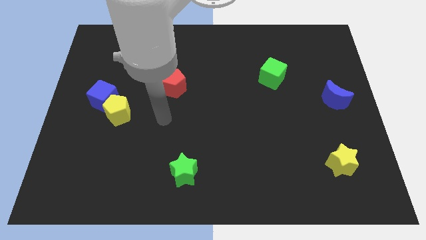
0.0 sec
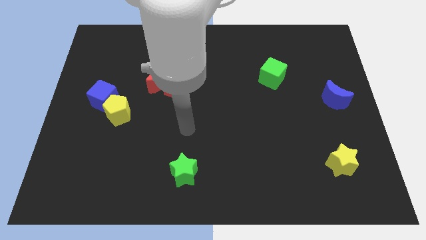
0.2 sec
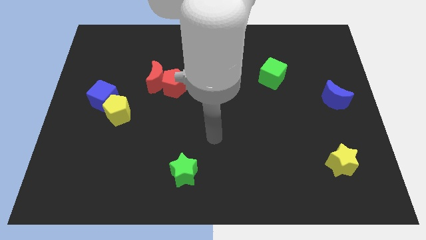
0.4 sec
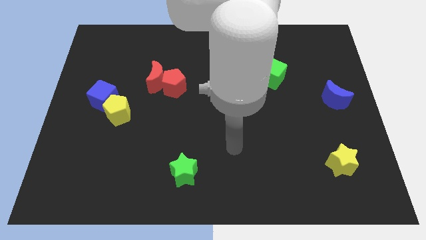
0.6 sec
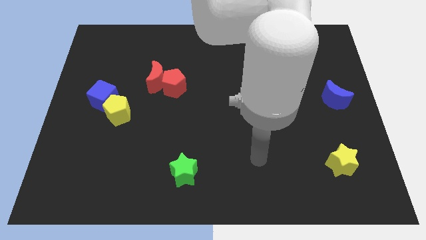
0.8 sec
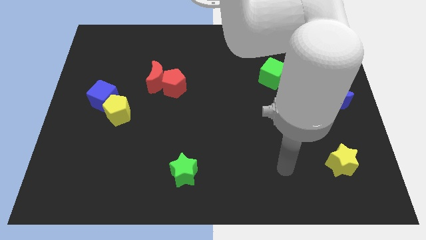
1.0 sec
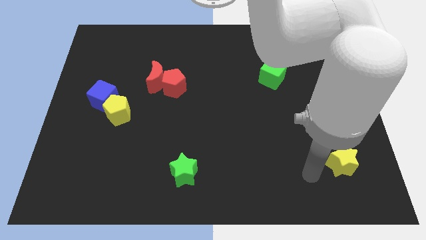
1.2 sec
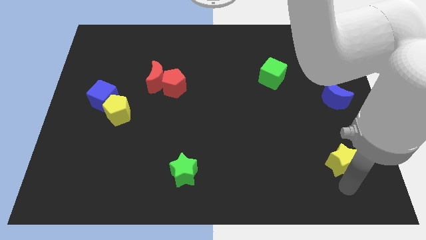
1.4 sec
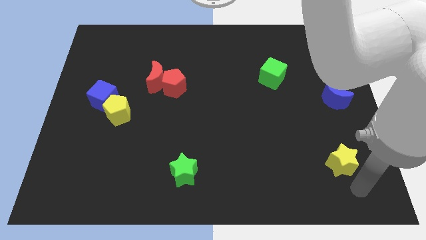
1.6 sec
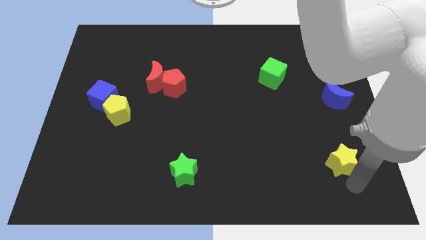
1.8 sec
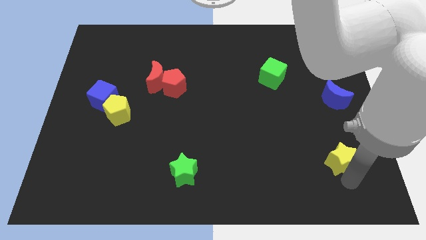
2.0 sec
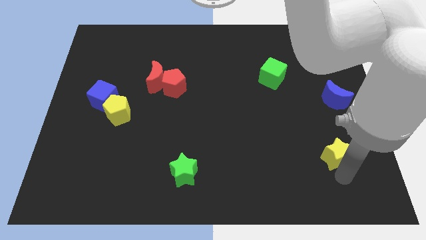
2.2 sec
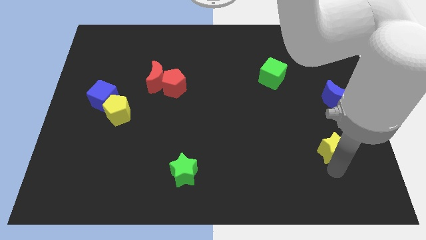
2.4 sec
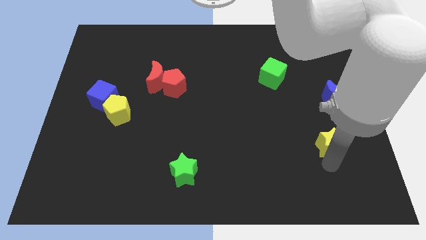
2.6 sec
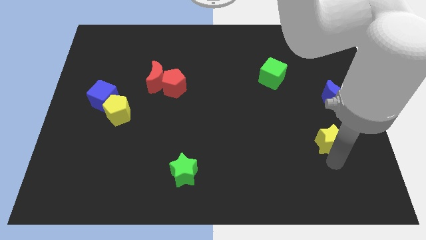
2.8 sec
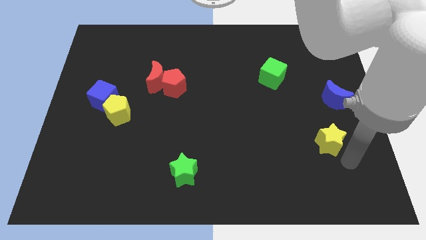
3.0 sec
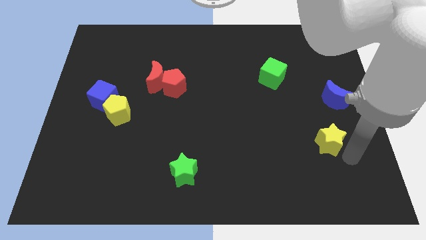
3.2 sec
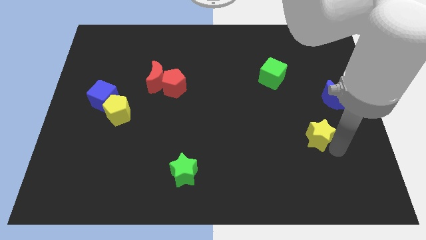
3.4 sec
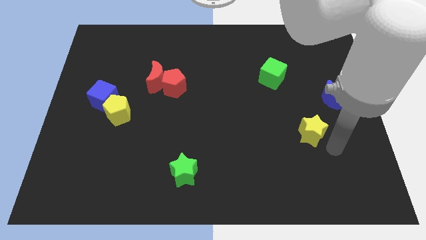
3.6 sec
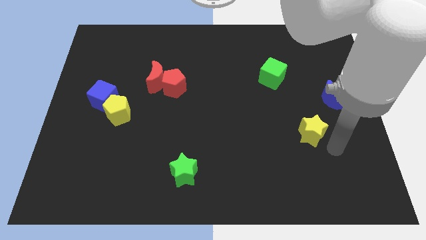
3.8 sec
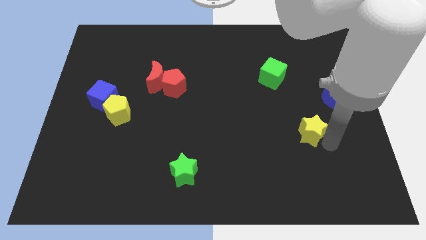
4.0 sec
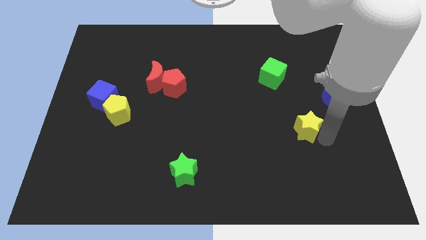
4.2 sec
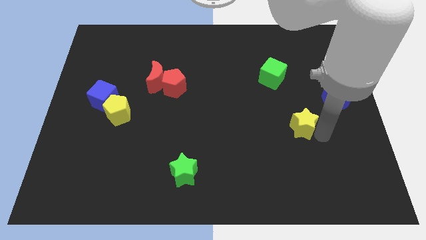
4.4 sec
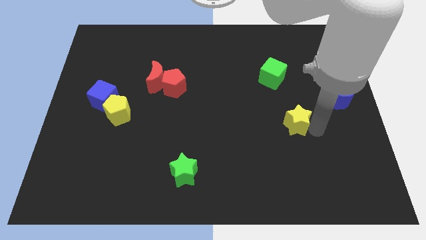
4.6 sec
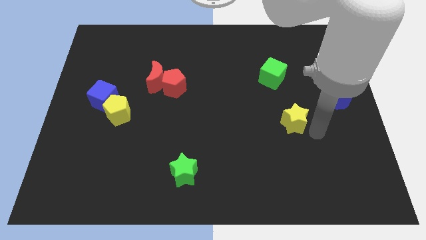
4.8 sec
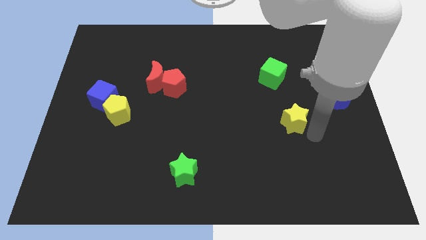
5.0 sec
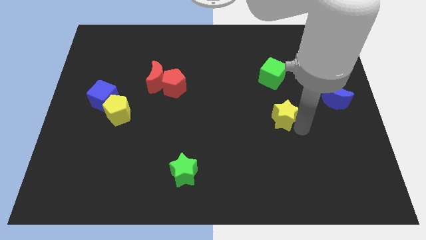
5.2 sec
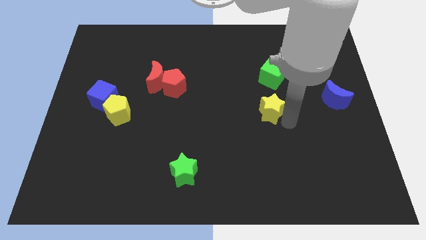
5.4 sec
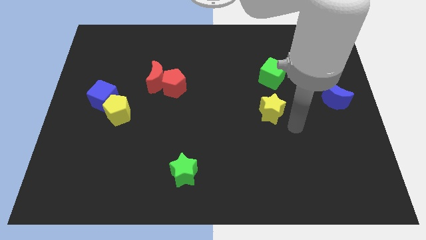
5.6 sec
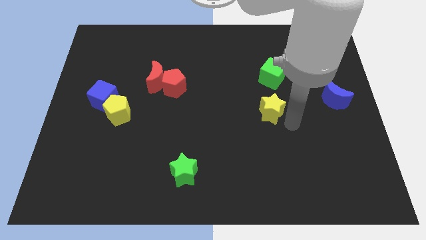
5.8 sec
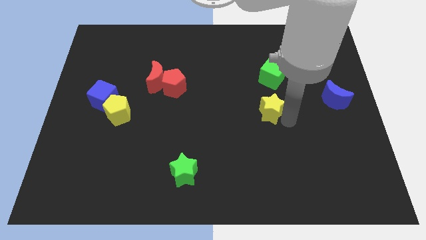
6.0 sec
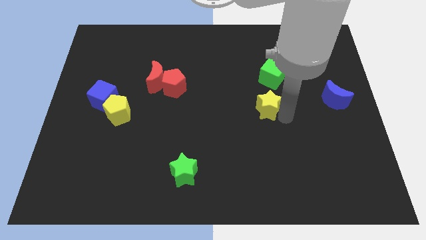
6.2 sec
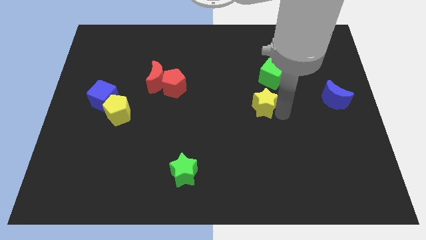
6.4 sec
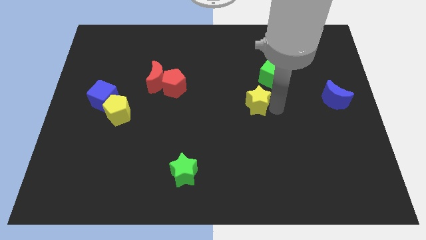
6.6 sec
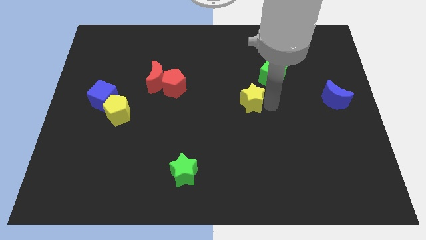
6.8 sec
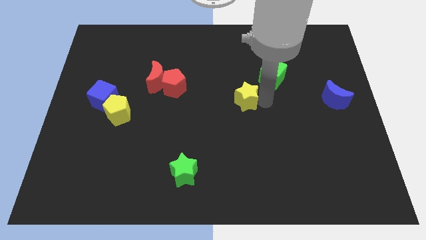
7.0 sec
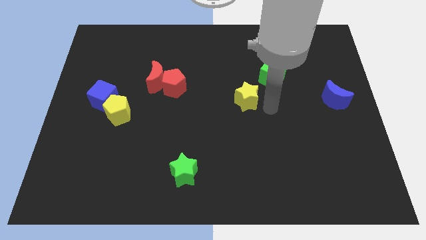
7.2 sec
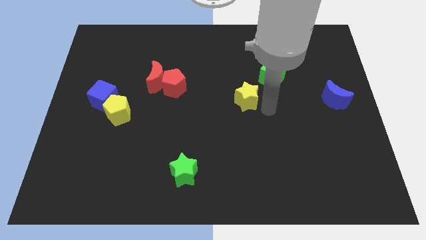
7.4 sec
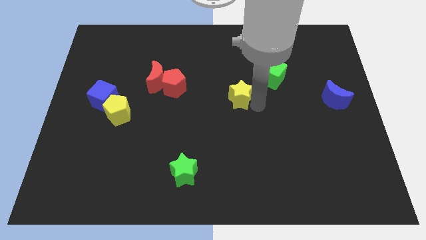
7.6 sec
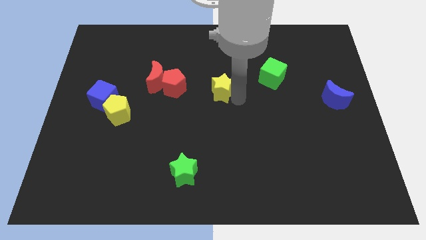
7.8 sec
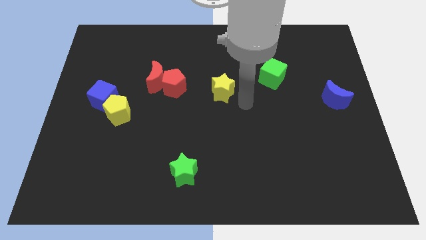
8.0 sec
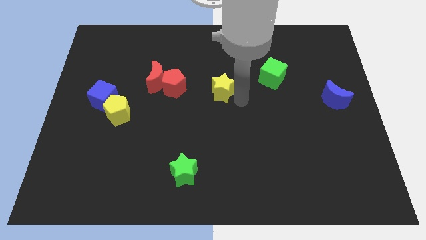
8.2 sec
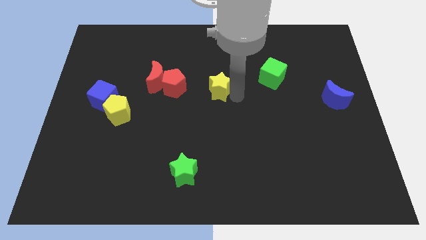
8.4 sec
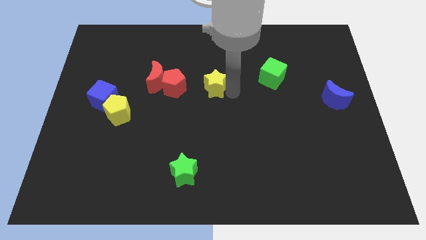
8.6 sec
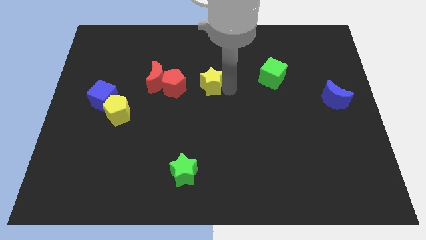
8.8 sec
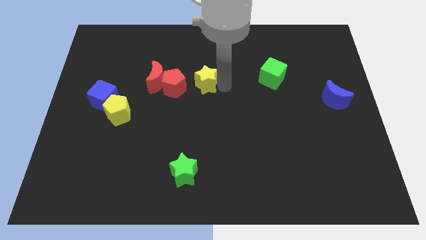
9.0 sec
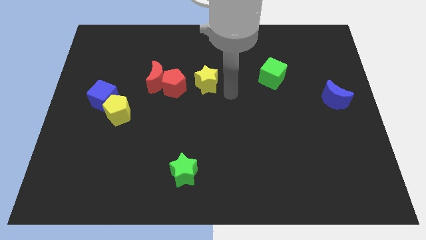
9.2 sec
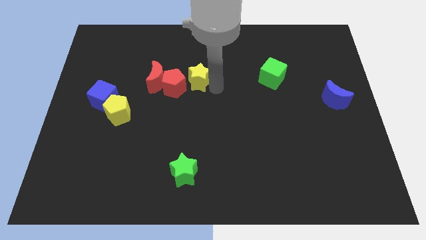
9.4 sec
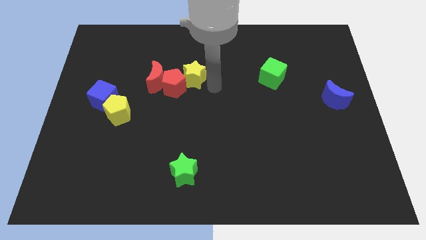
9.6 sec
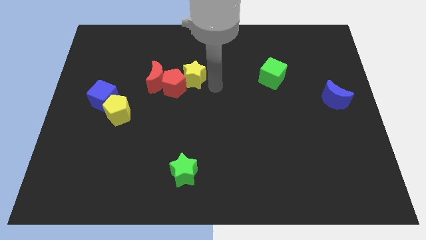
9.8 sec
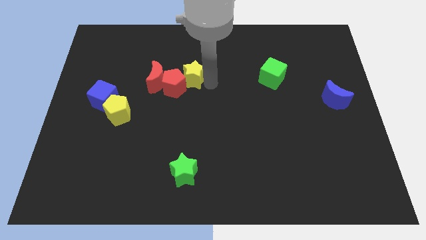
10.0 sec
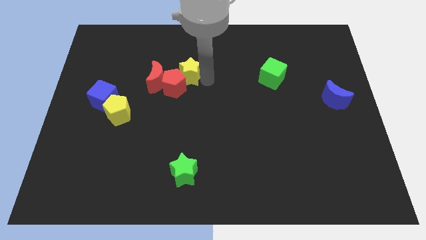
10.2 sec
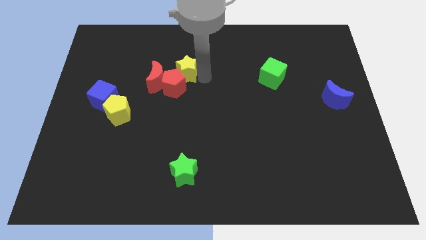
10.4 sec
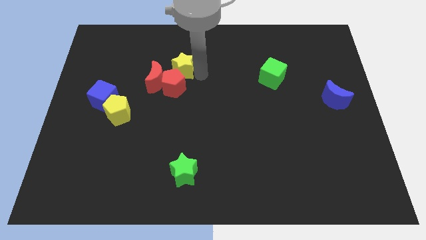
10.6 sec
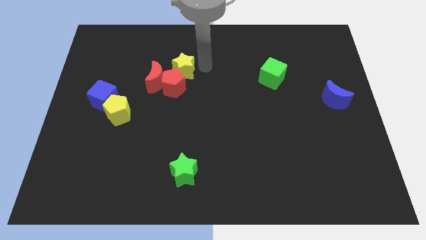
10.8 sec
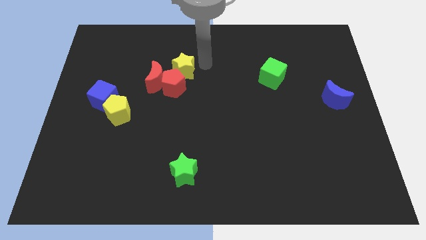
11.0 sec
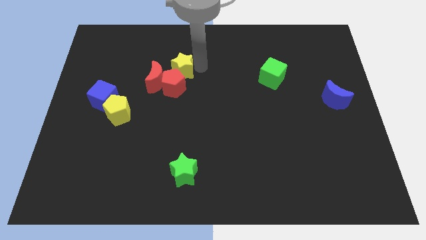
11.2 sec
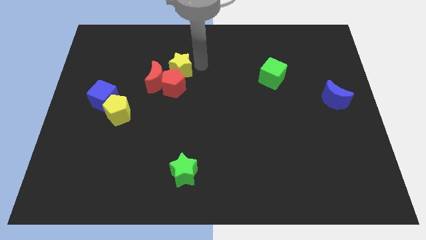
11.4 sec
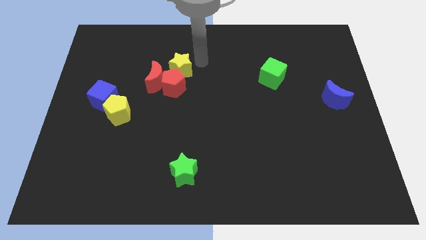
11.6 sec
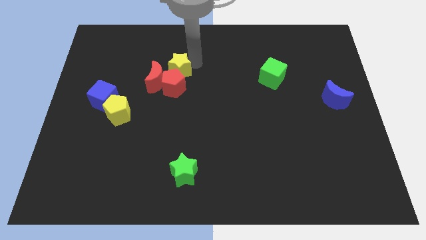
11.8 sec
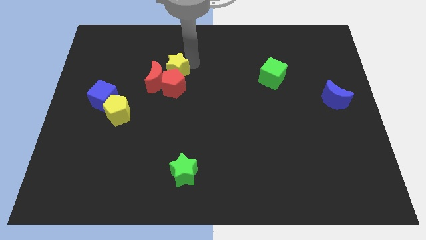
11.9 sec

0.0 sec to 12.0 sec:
put the yellow star close to the red moon

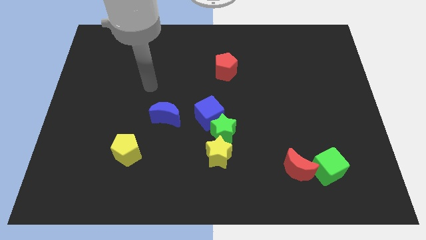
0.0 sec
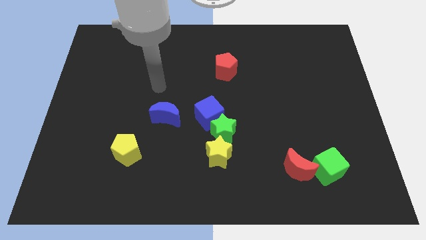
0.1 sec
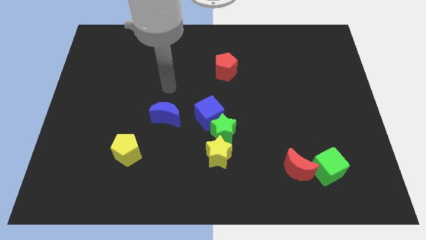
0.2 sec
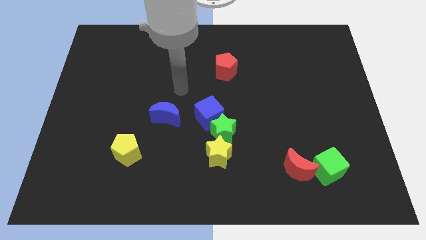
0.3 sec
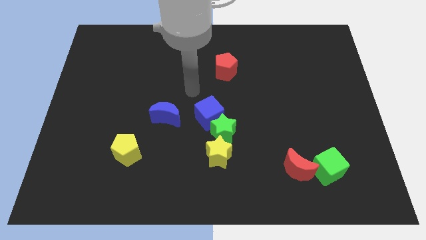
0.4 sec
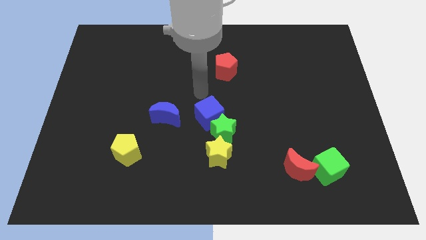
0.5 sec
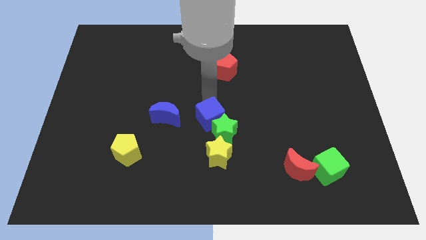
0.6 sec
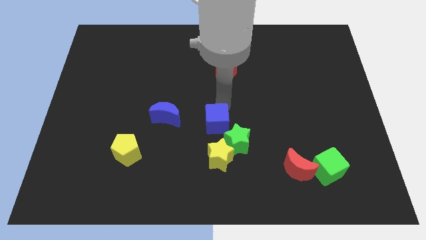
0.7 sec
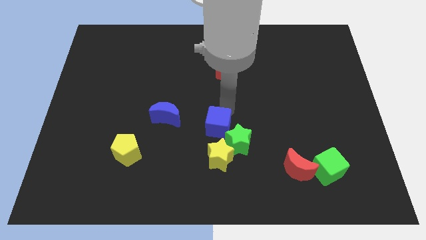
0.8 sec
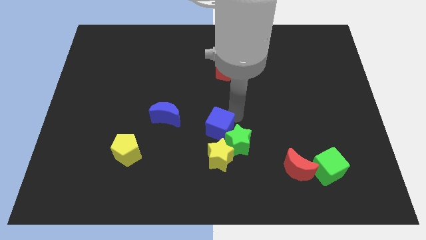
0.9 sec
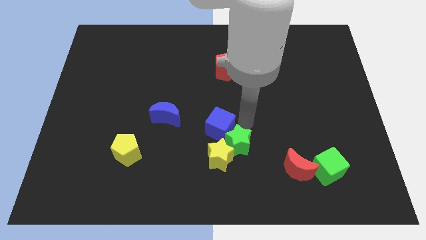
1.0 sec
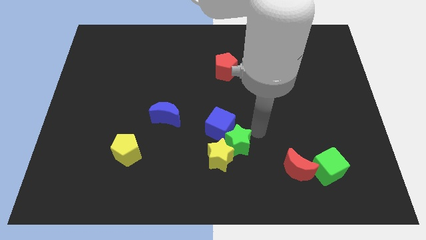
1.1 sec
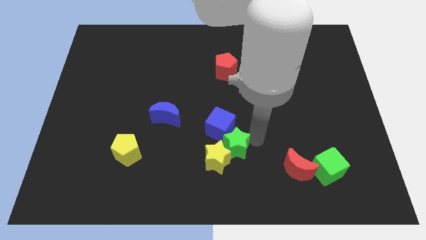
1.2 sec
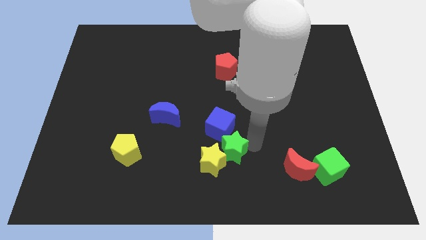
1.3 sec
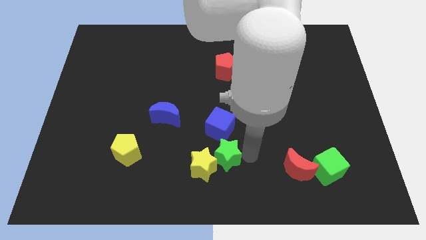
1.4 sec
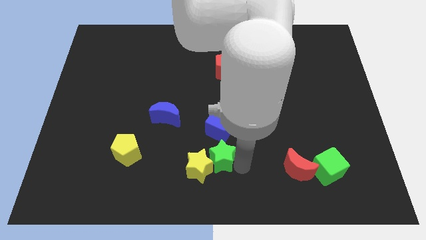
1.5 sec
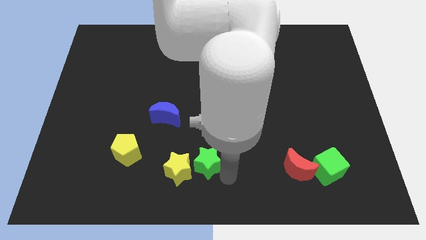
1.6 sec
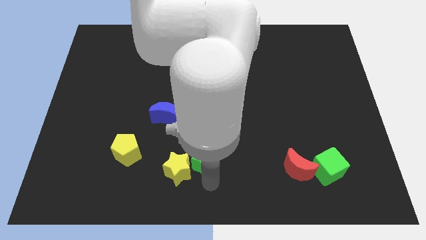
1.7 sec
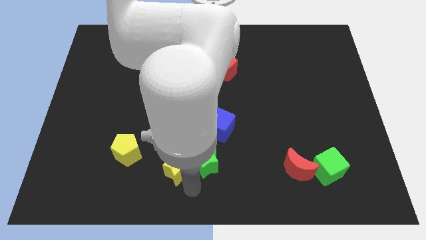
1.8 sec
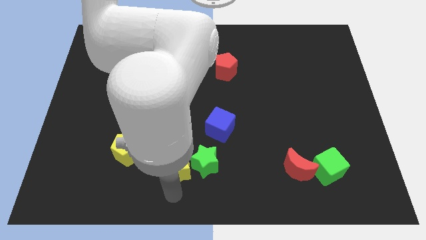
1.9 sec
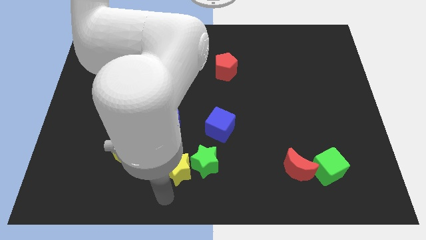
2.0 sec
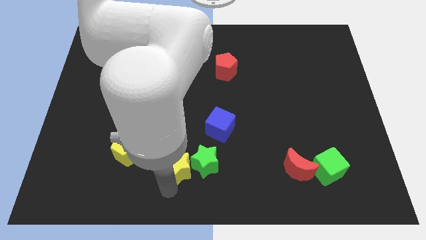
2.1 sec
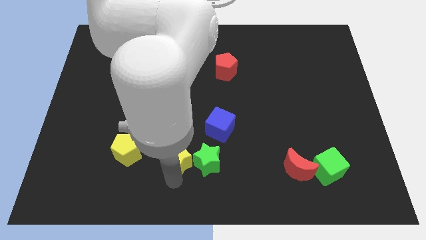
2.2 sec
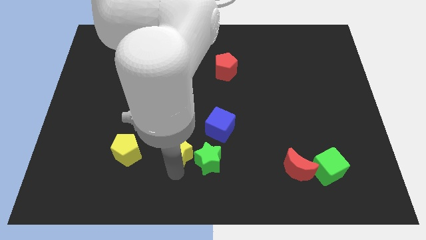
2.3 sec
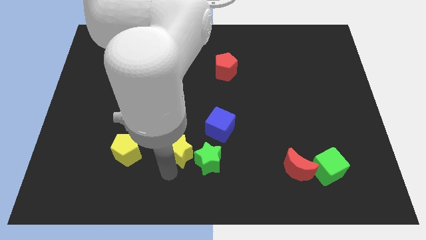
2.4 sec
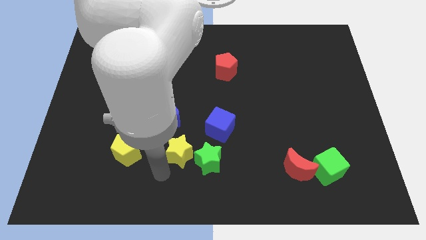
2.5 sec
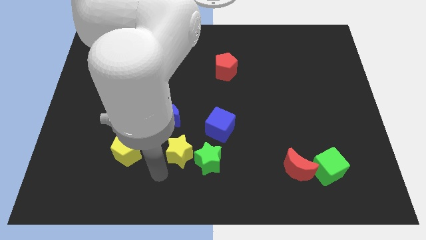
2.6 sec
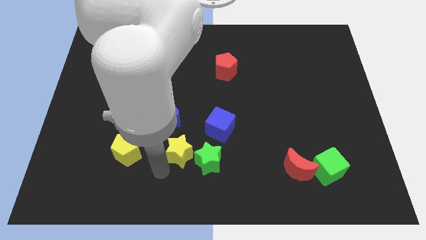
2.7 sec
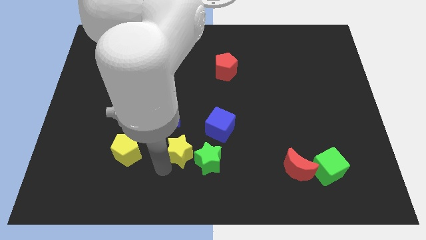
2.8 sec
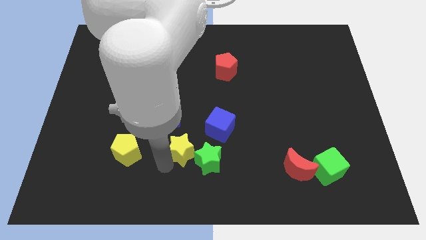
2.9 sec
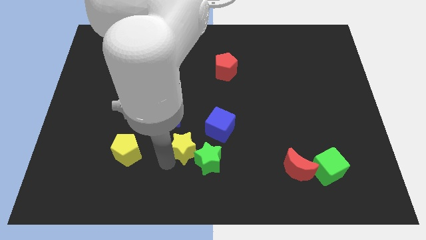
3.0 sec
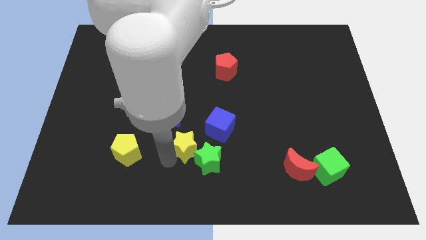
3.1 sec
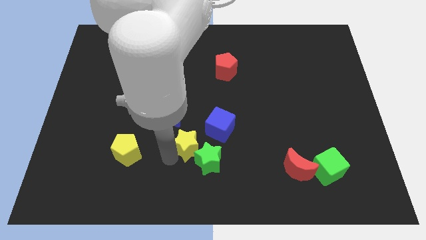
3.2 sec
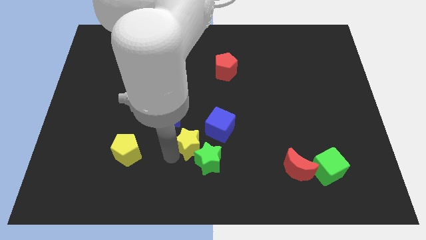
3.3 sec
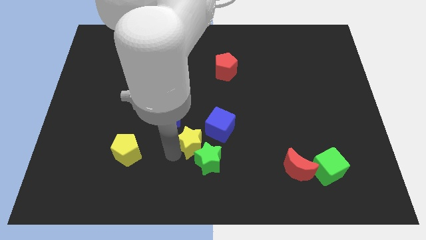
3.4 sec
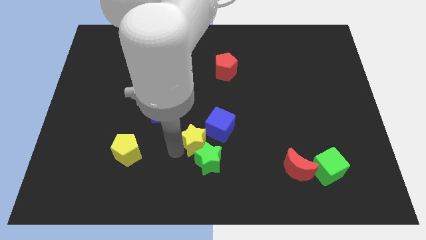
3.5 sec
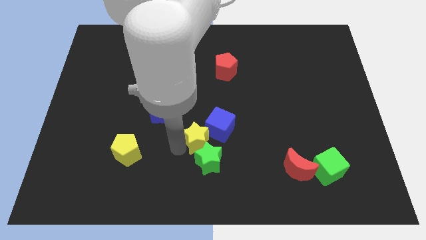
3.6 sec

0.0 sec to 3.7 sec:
slide the yellow star next to the blue cube
